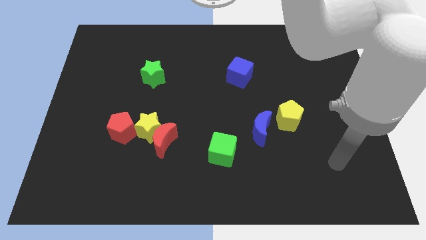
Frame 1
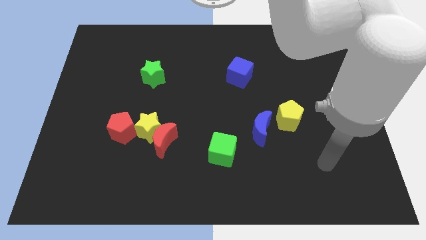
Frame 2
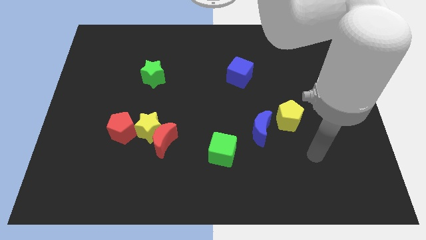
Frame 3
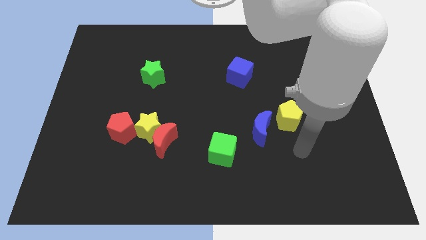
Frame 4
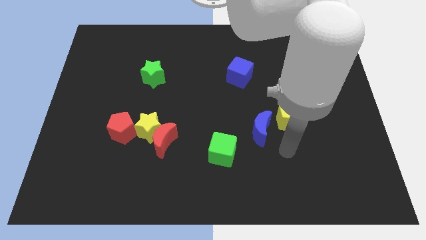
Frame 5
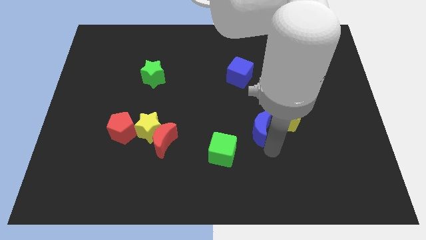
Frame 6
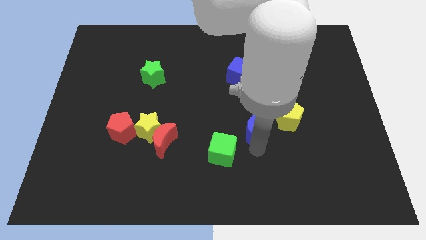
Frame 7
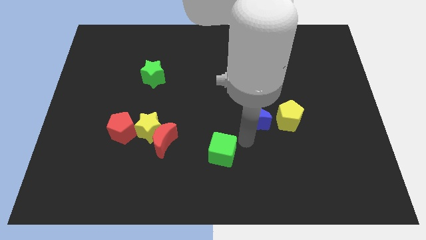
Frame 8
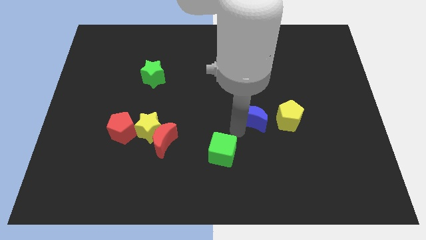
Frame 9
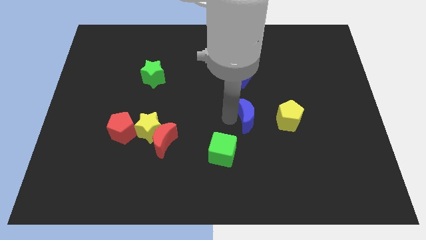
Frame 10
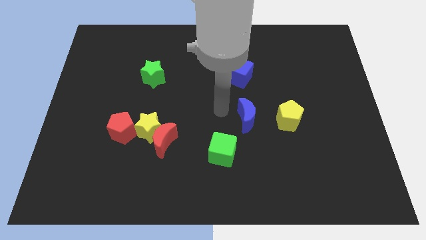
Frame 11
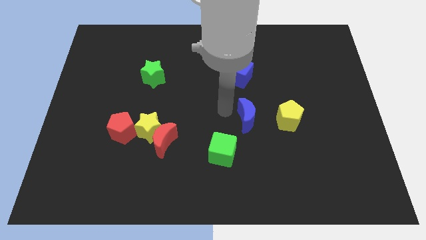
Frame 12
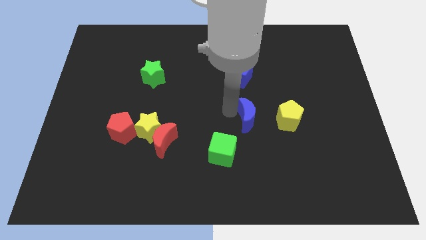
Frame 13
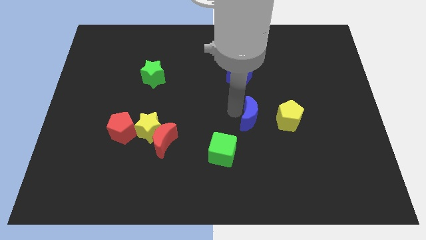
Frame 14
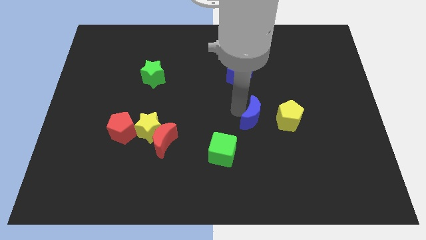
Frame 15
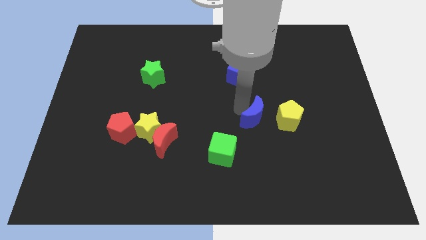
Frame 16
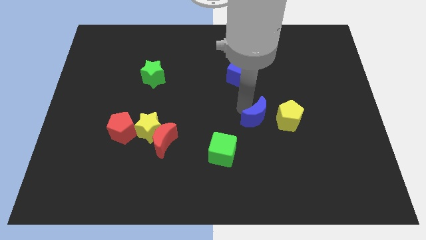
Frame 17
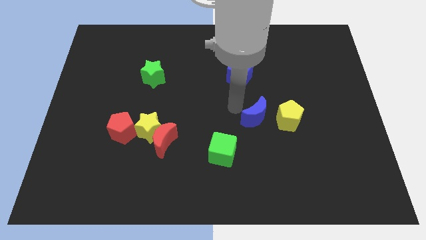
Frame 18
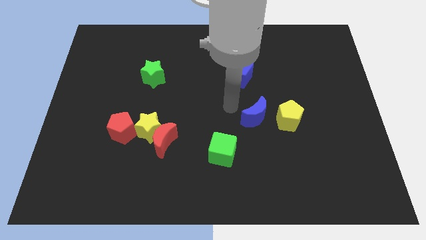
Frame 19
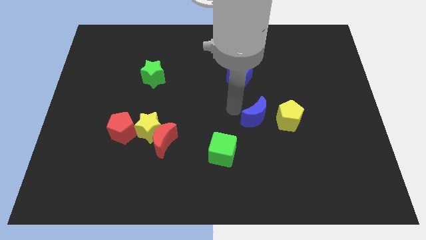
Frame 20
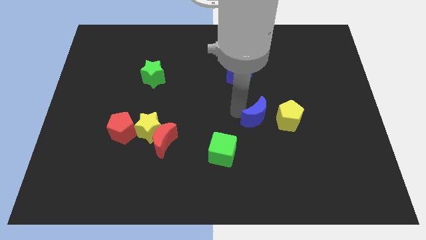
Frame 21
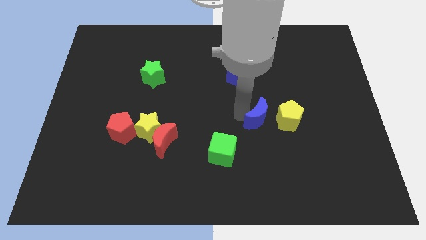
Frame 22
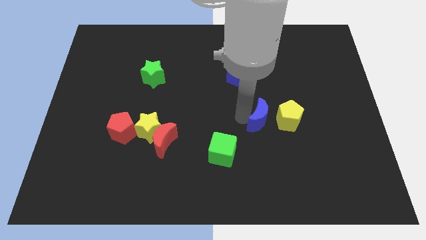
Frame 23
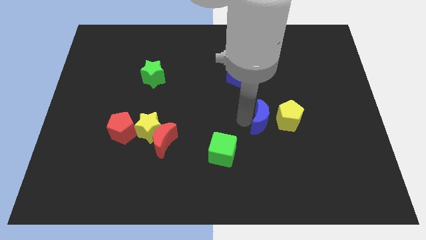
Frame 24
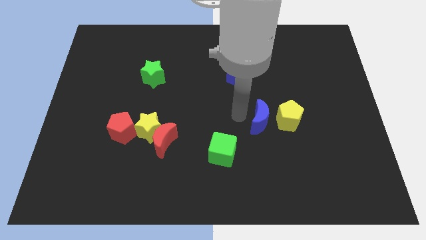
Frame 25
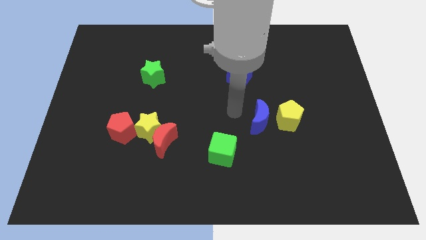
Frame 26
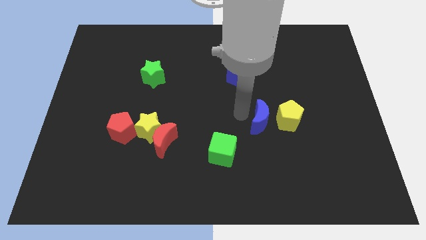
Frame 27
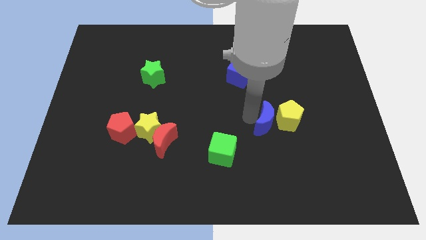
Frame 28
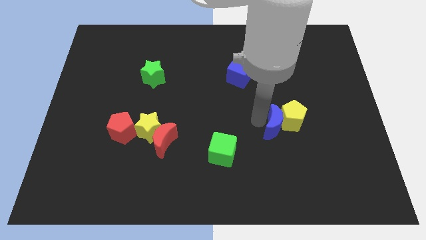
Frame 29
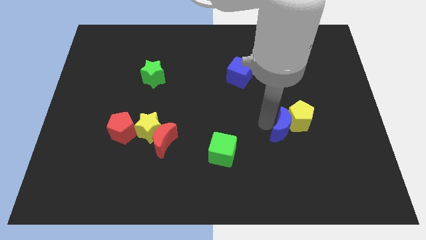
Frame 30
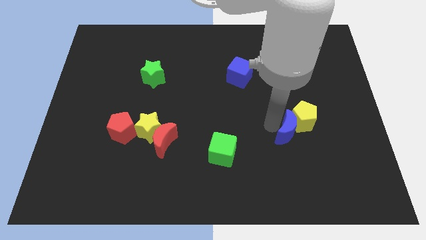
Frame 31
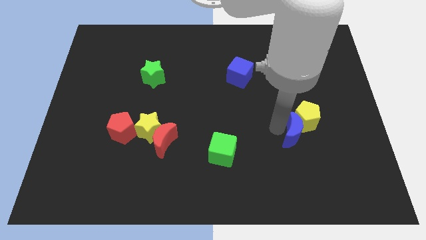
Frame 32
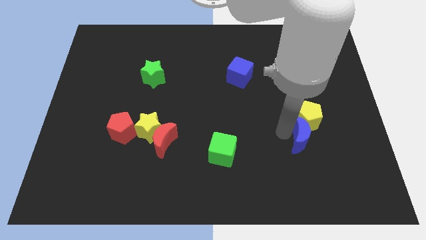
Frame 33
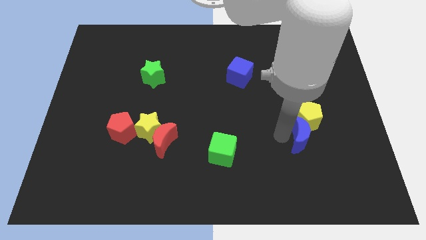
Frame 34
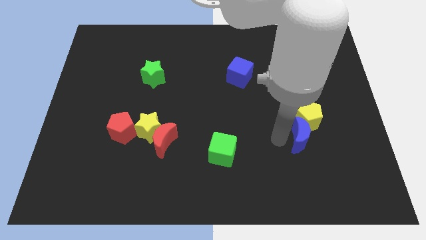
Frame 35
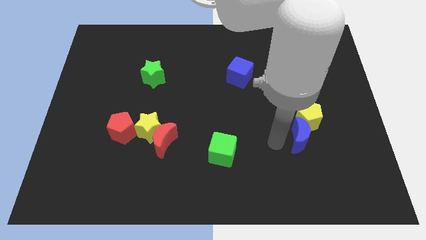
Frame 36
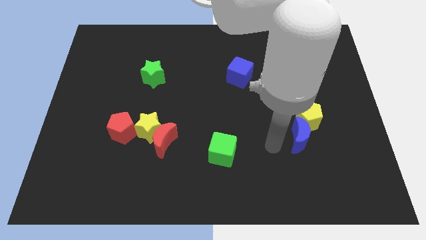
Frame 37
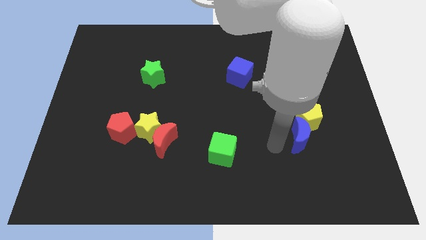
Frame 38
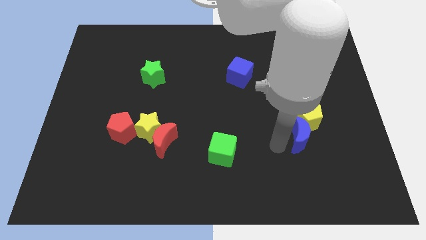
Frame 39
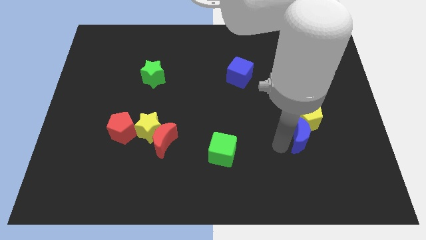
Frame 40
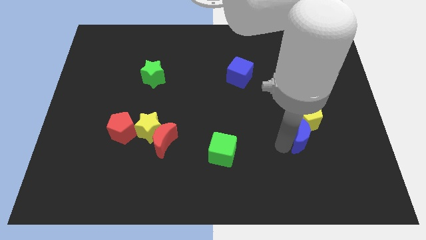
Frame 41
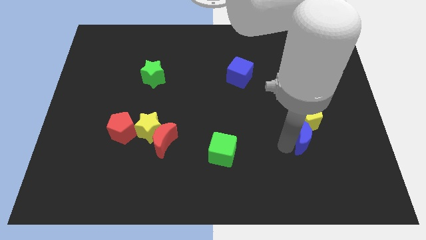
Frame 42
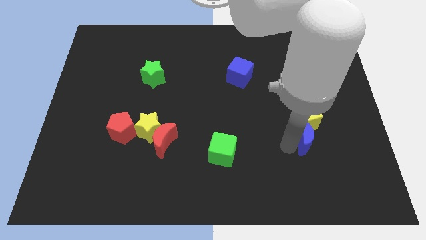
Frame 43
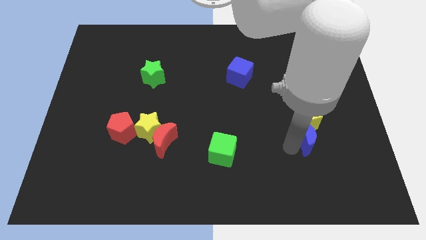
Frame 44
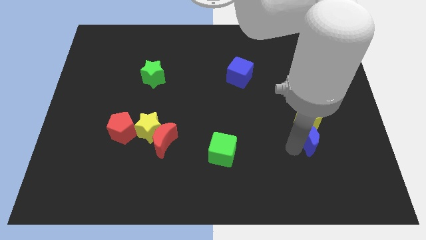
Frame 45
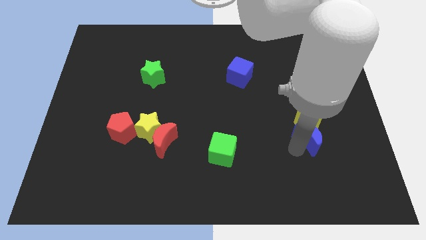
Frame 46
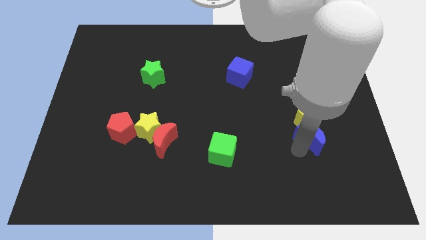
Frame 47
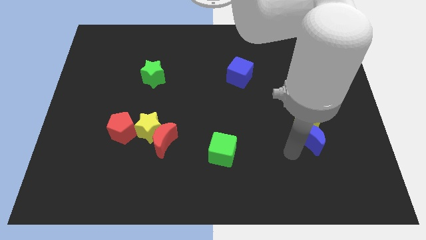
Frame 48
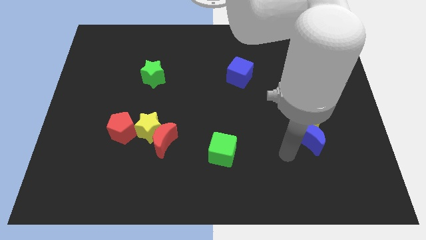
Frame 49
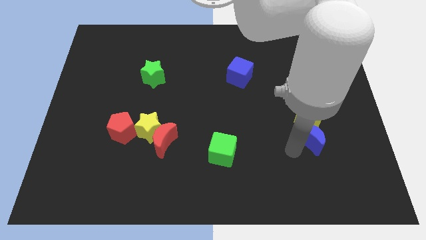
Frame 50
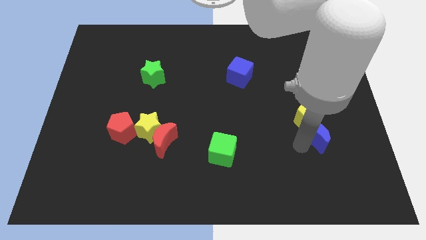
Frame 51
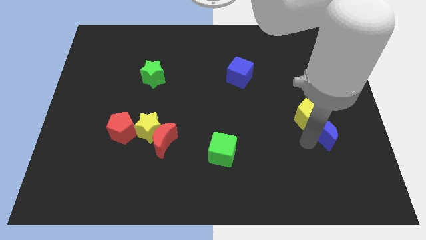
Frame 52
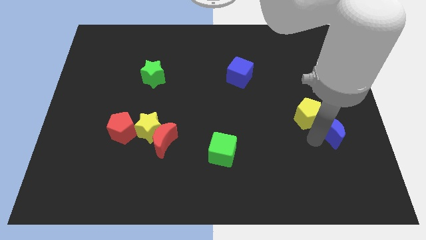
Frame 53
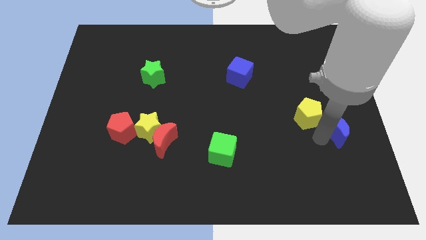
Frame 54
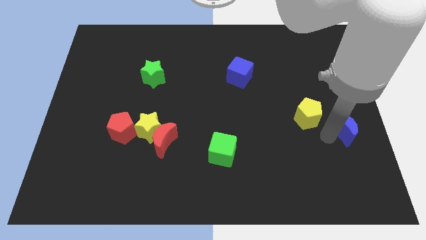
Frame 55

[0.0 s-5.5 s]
move the blue moon to the center right

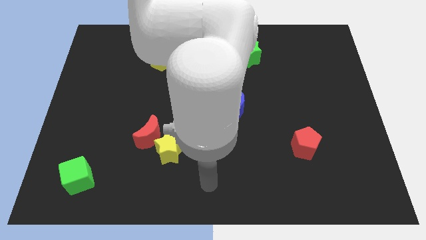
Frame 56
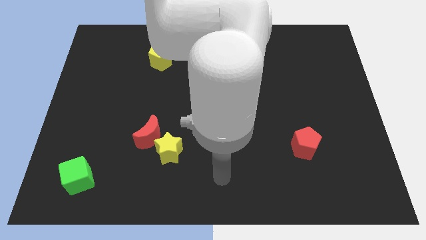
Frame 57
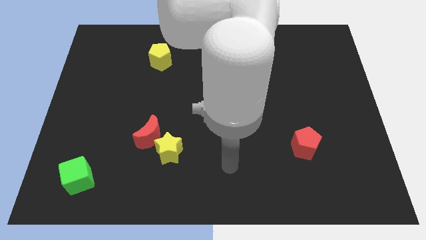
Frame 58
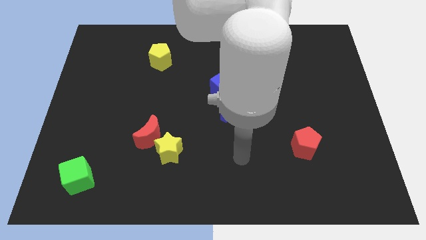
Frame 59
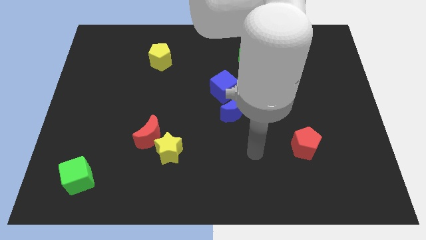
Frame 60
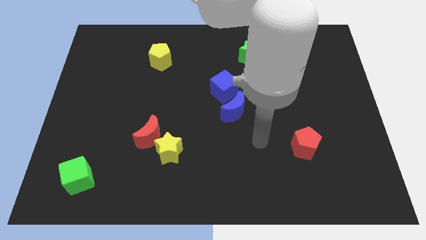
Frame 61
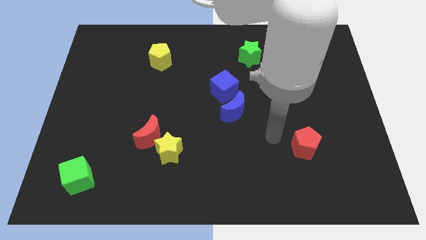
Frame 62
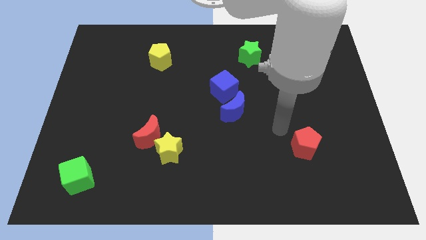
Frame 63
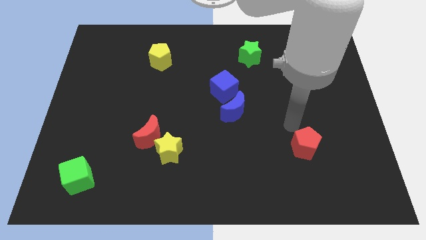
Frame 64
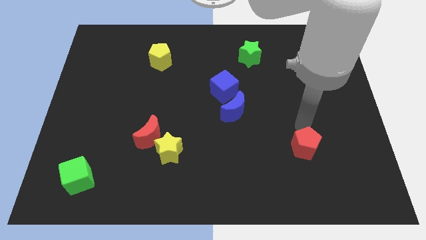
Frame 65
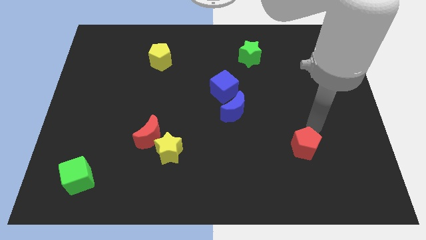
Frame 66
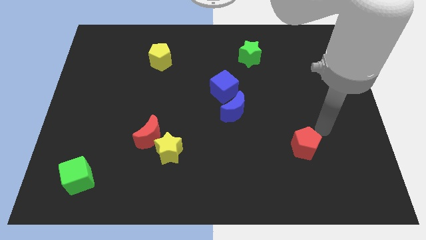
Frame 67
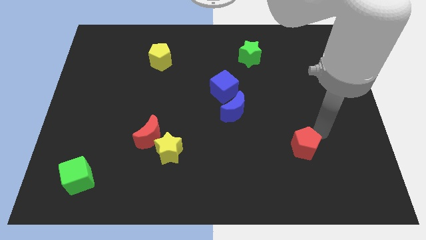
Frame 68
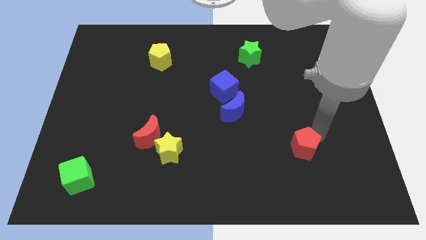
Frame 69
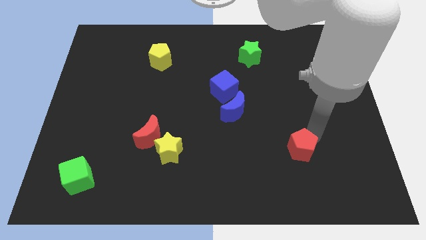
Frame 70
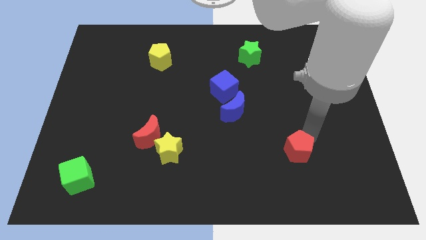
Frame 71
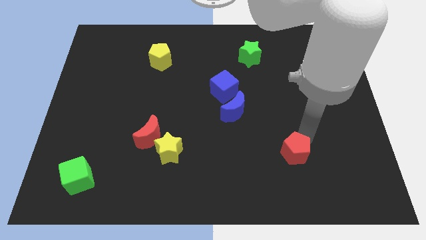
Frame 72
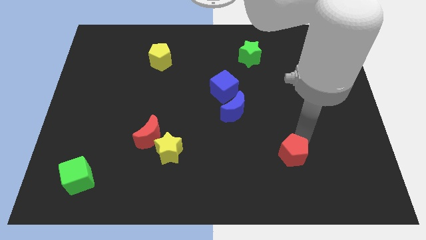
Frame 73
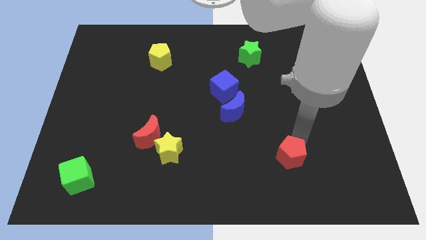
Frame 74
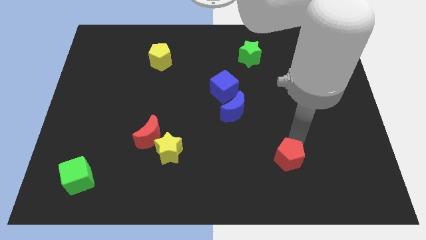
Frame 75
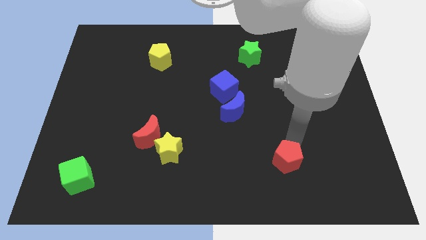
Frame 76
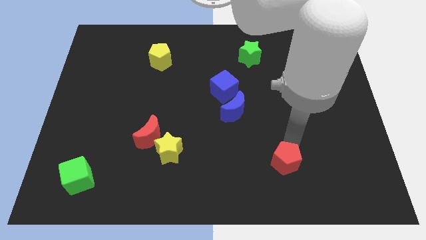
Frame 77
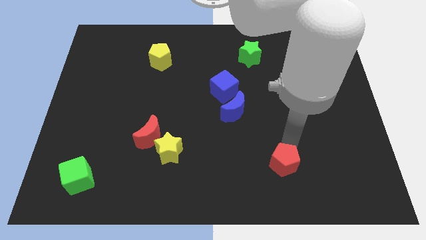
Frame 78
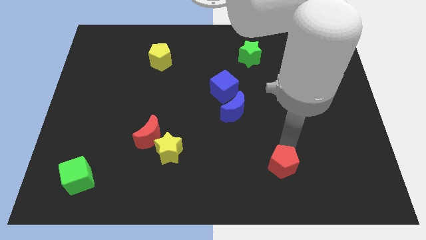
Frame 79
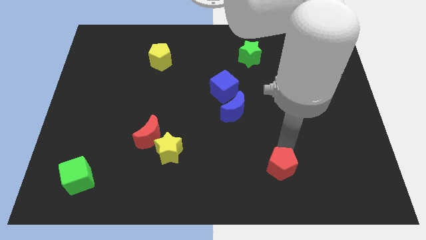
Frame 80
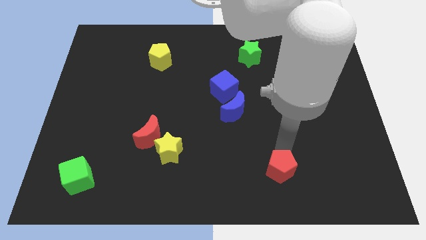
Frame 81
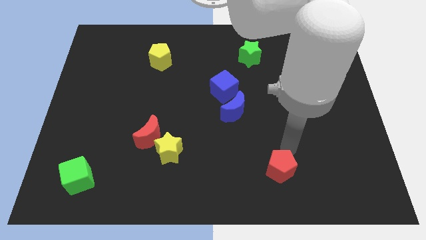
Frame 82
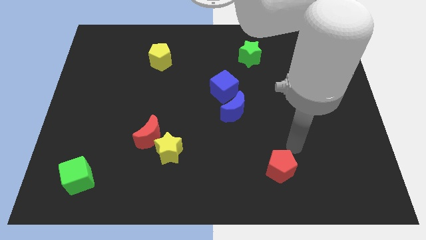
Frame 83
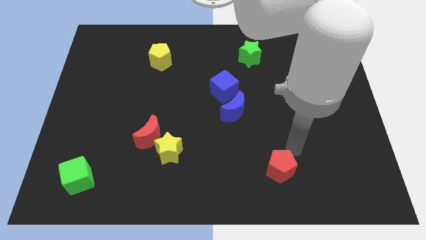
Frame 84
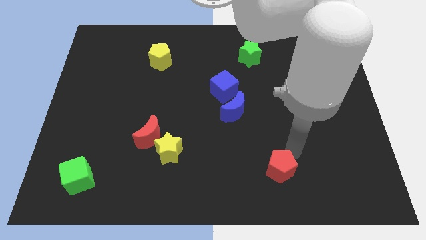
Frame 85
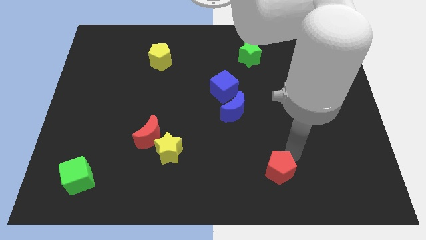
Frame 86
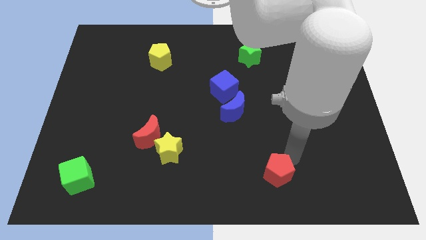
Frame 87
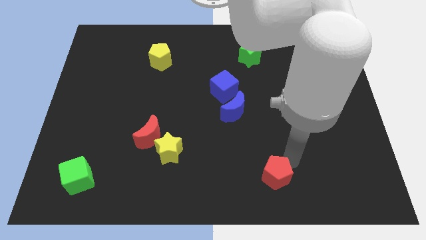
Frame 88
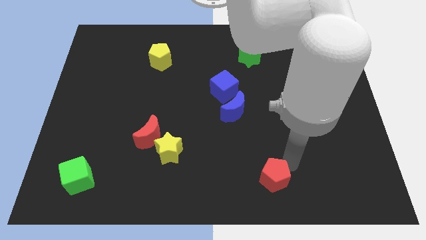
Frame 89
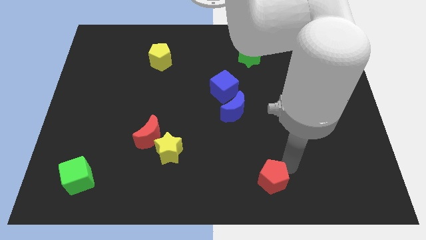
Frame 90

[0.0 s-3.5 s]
slide the red pentagon to the bottom side
